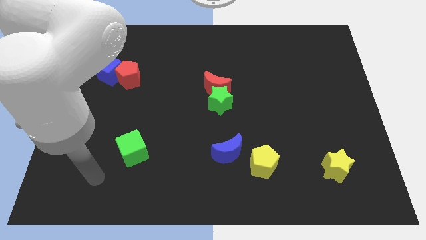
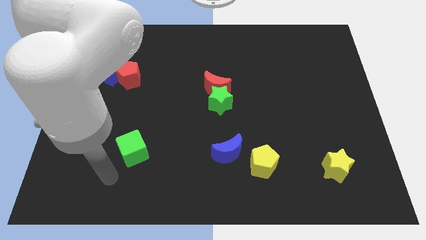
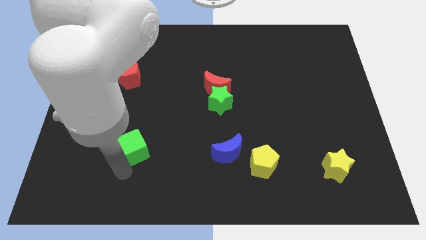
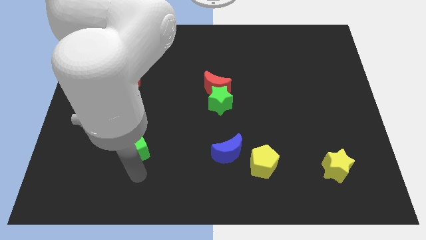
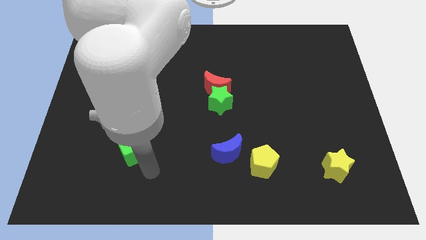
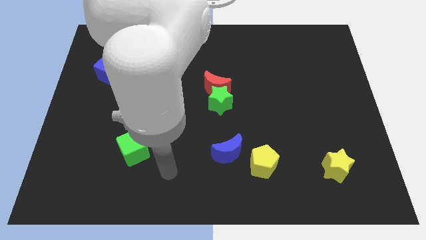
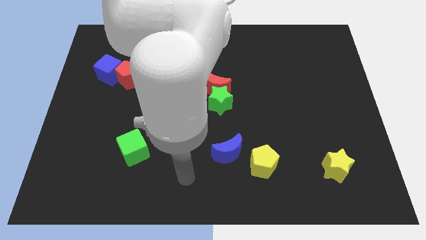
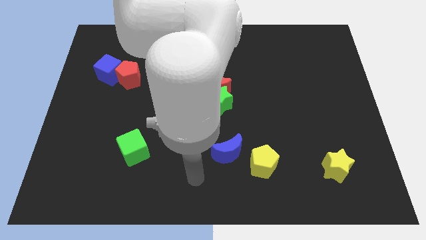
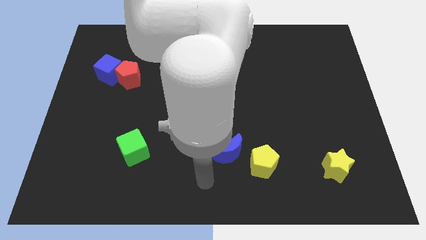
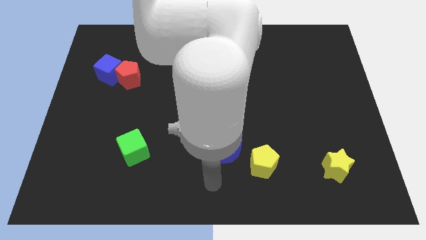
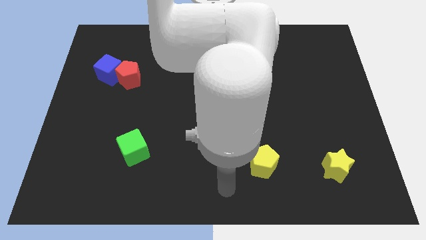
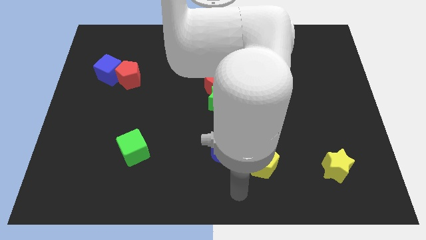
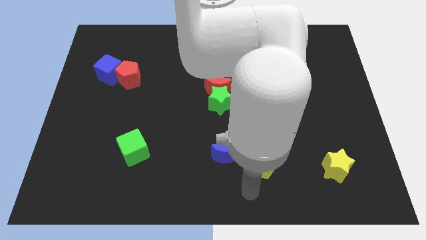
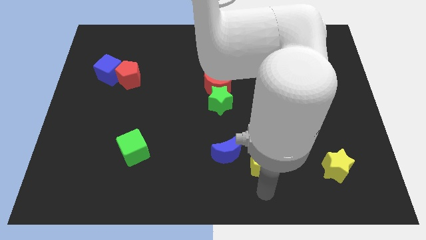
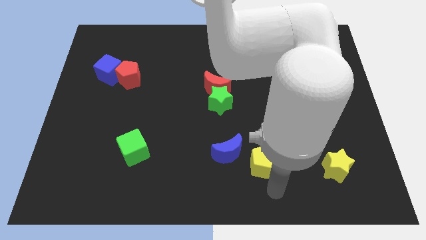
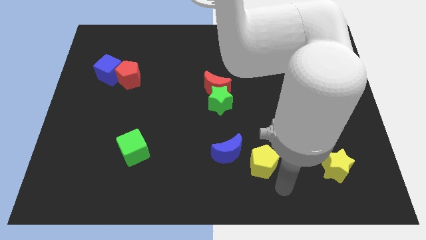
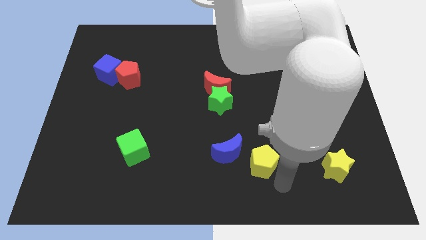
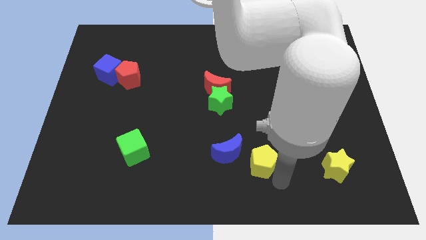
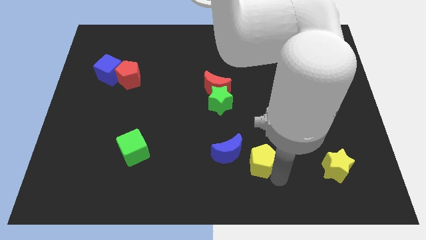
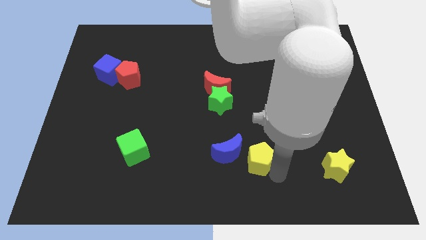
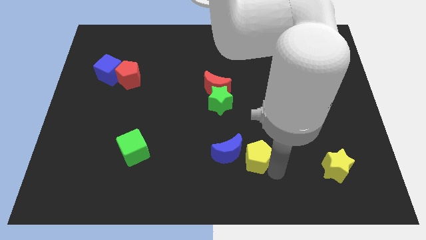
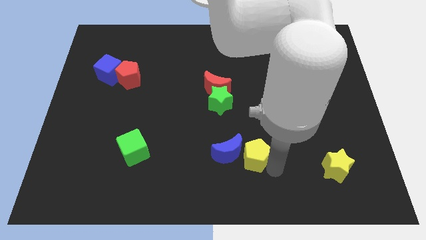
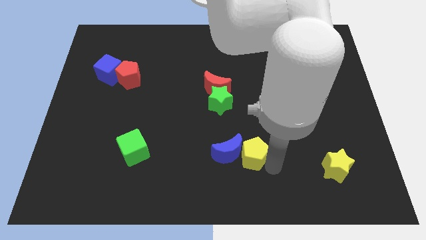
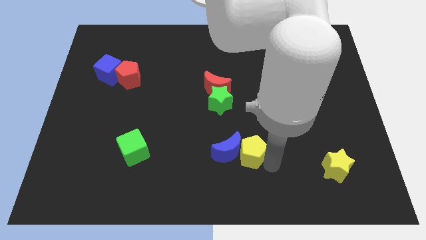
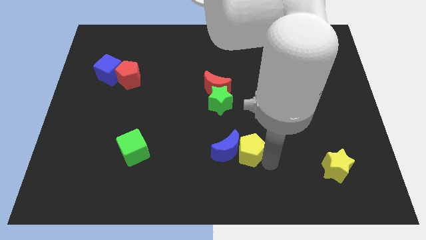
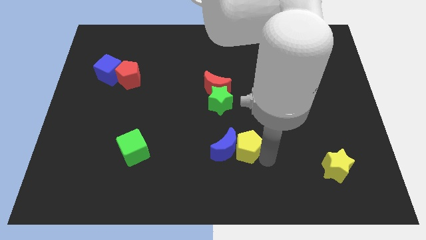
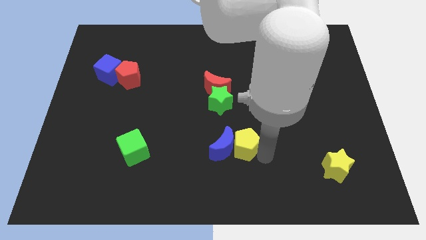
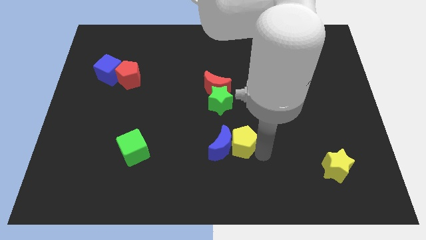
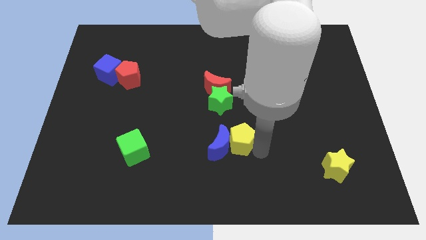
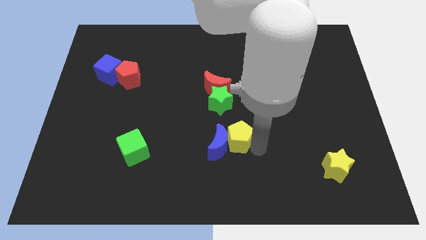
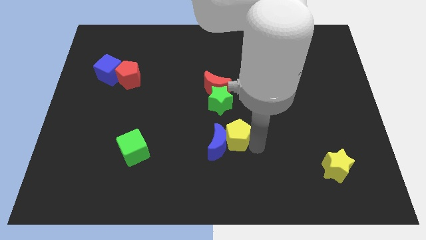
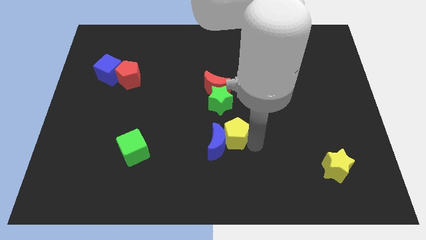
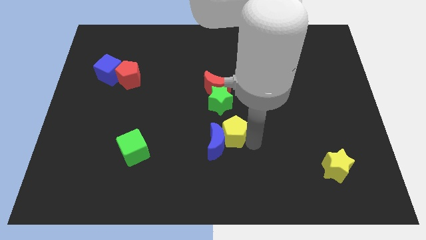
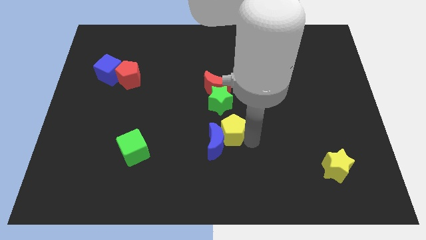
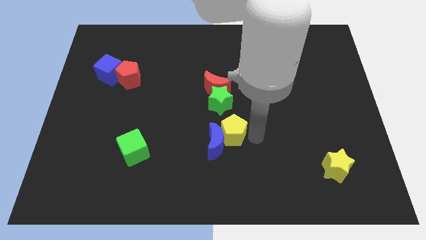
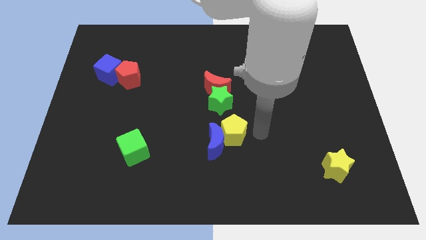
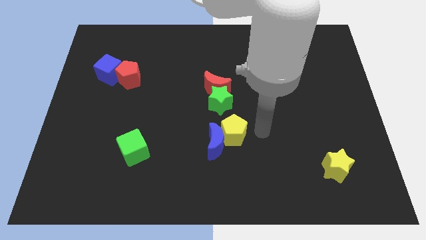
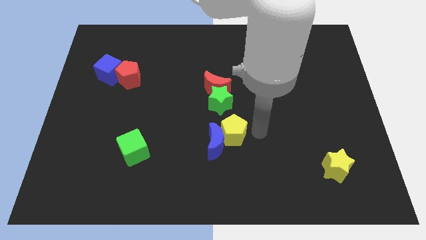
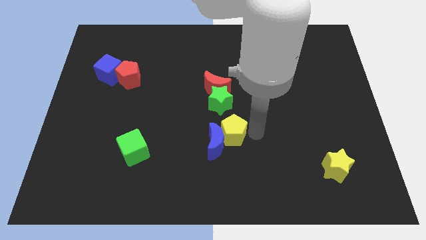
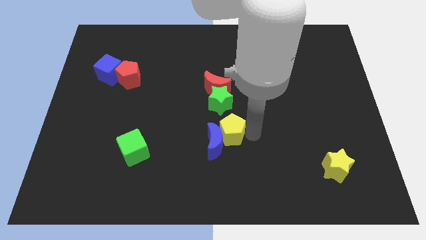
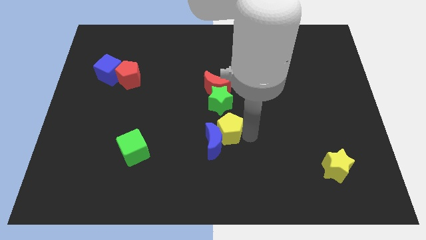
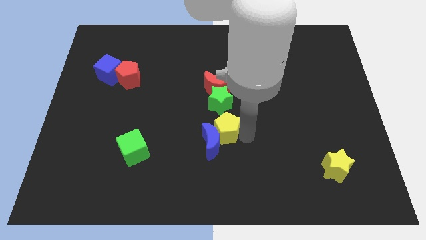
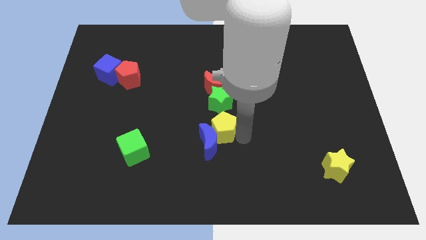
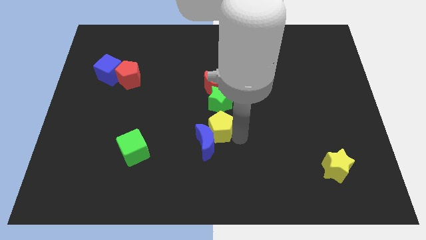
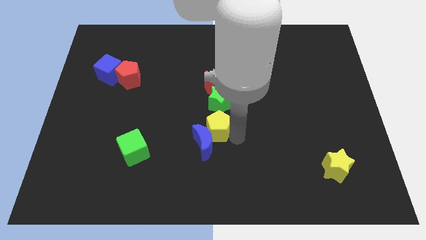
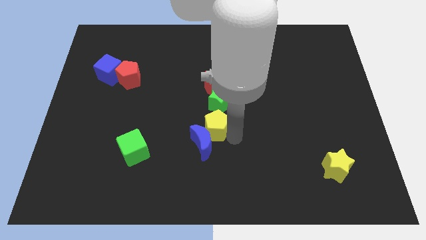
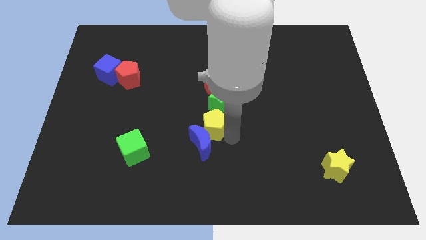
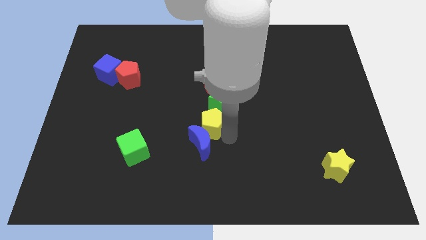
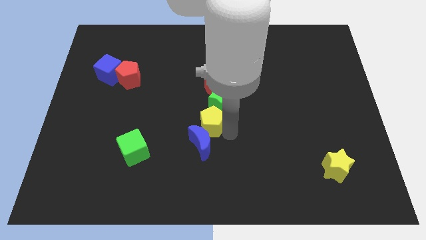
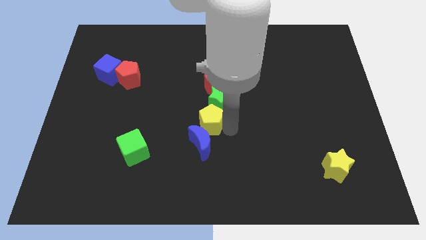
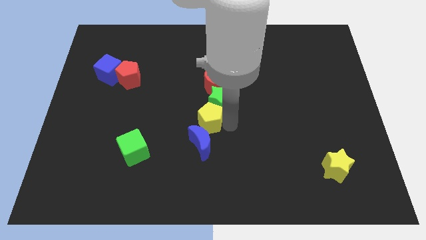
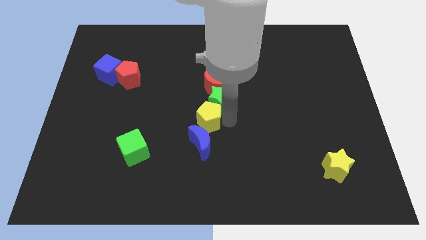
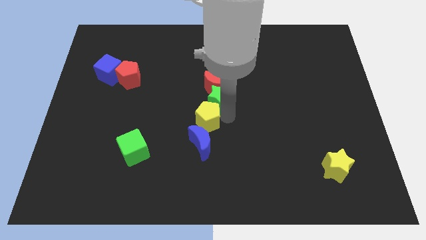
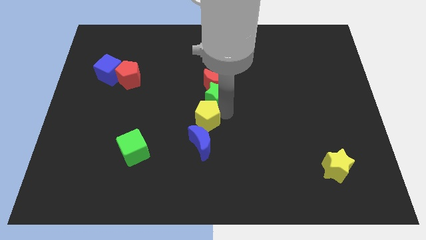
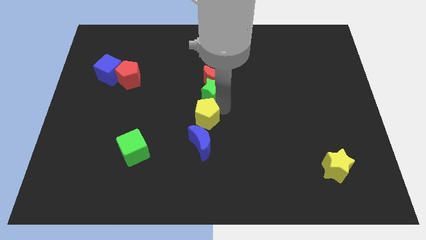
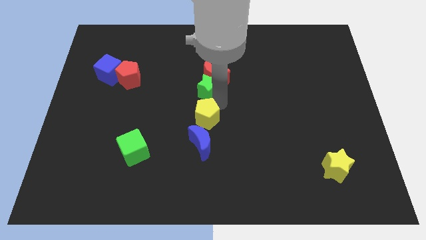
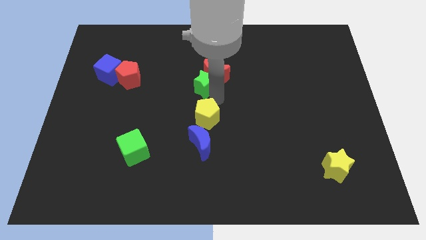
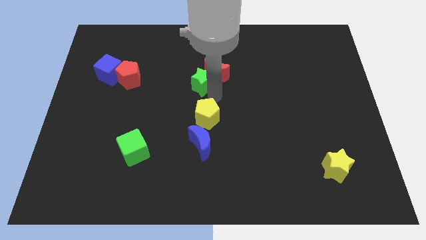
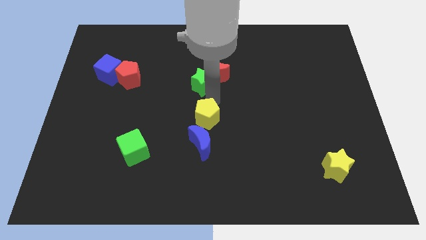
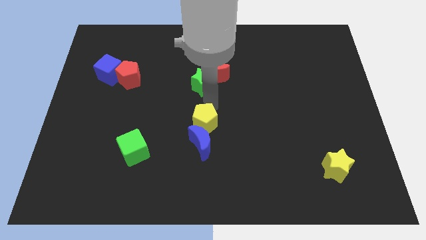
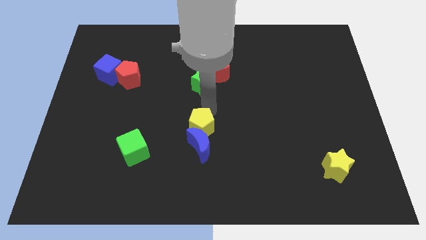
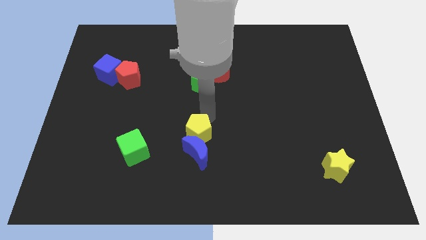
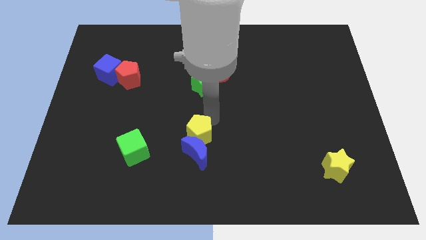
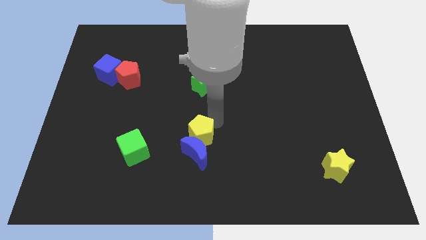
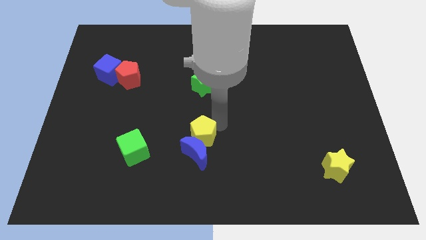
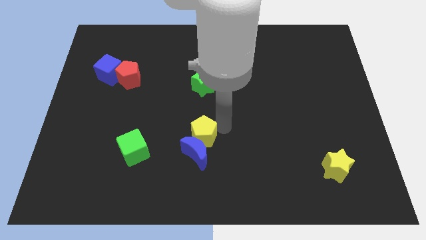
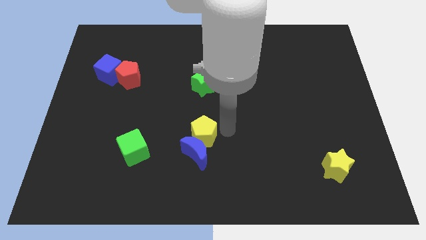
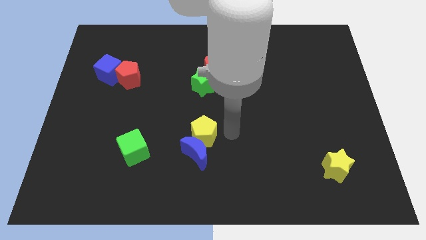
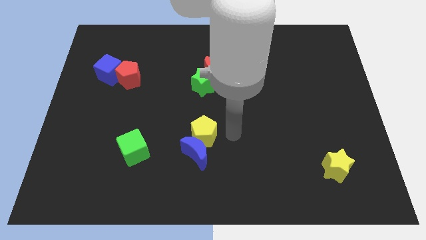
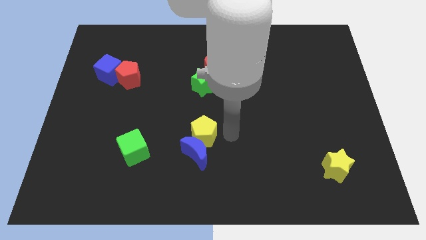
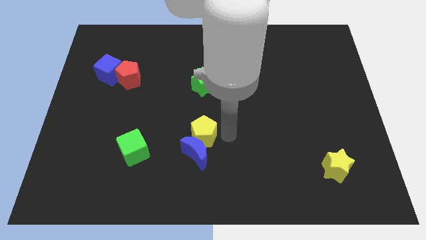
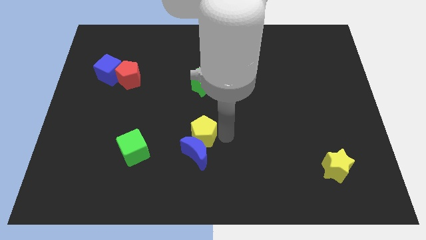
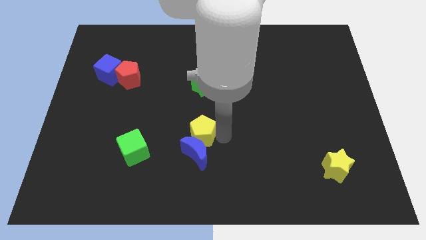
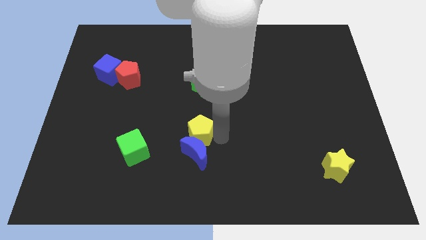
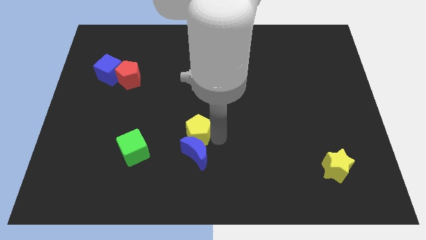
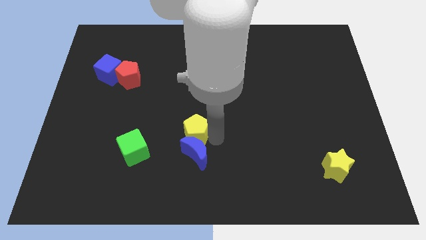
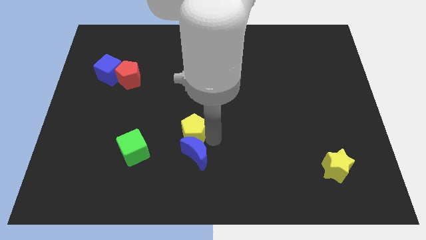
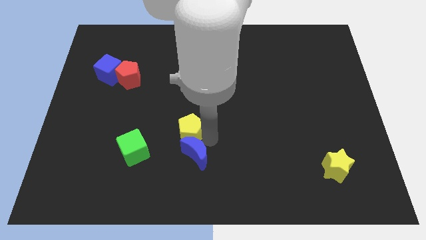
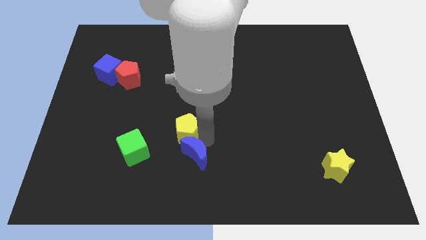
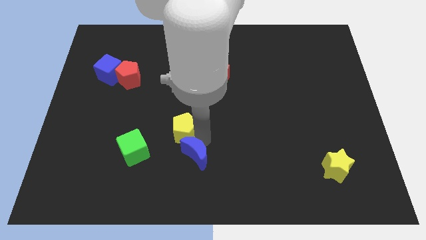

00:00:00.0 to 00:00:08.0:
move the yellow pentagon to the top right side of the green cube
